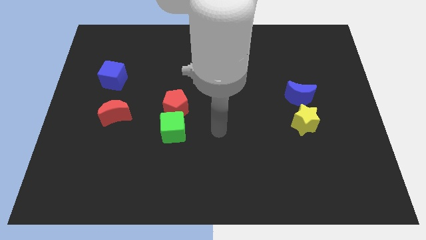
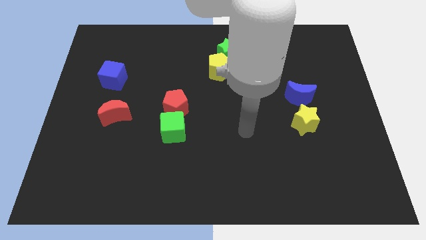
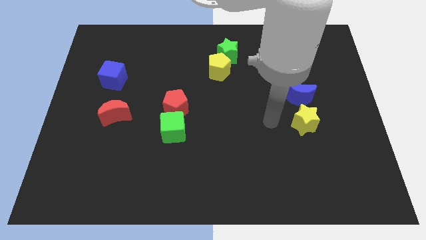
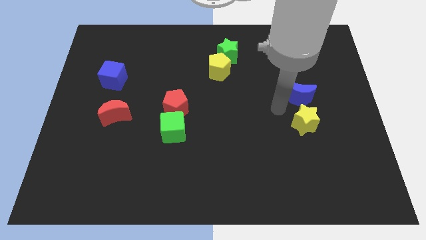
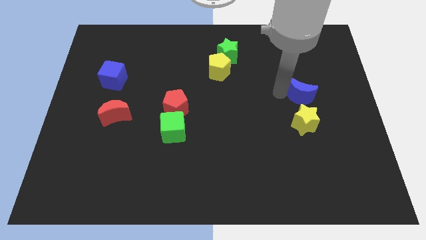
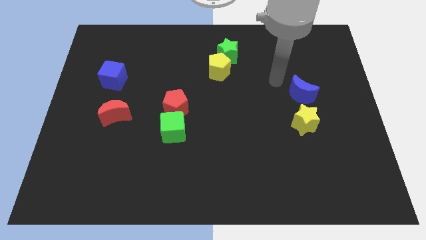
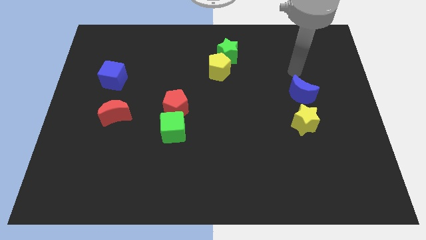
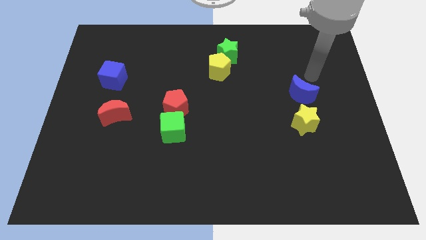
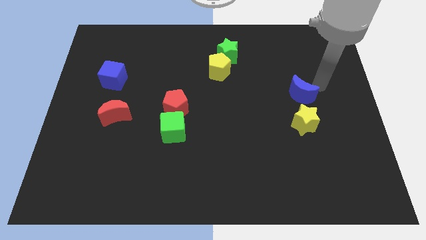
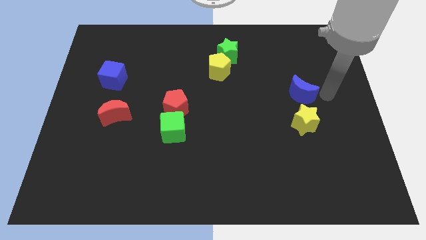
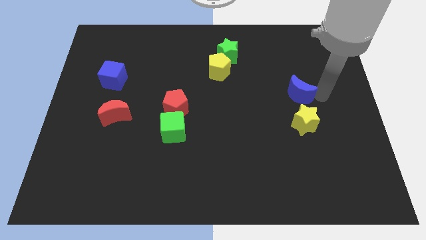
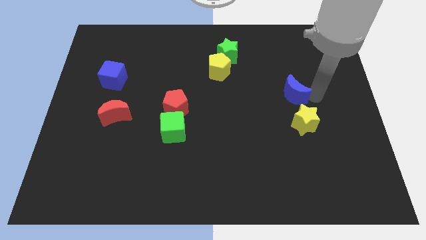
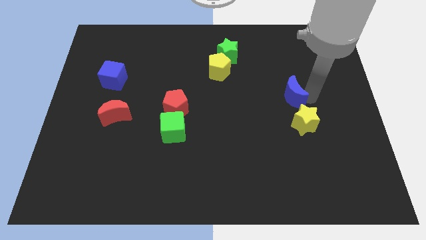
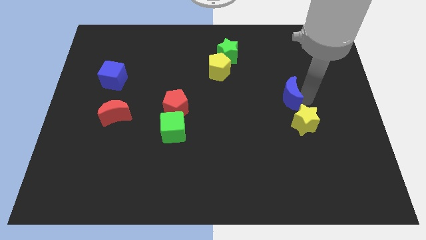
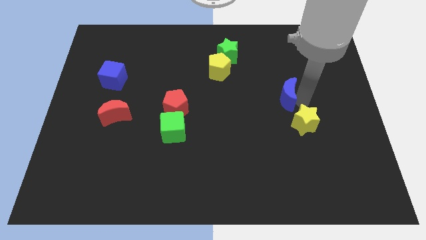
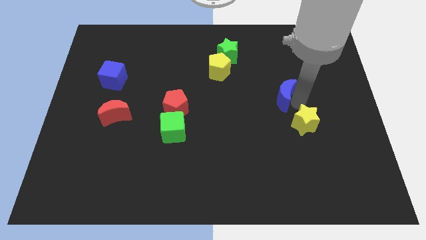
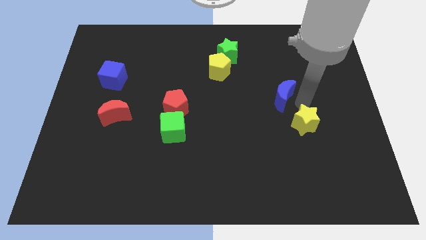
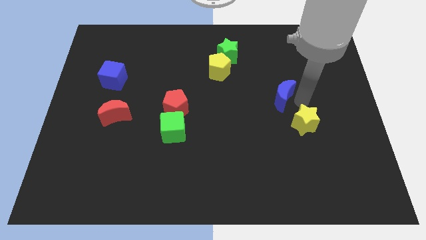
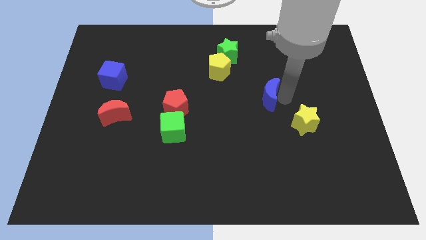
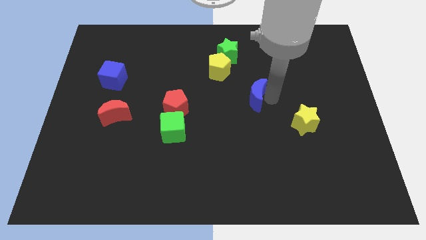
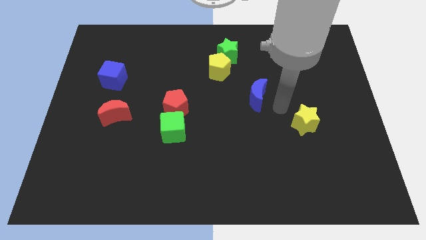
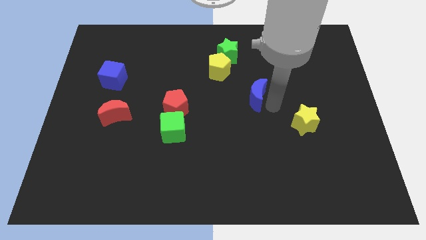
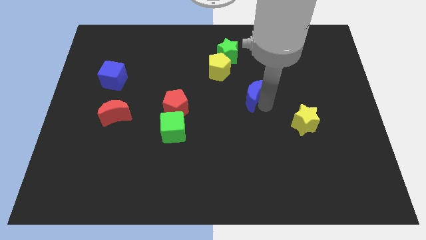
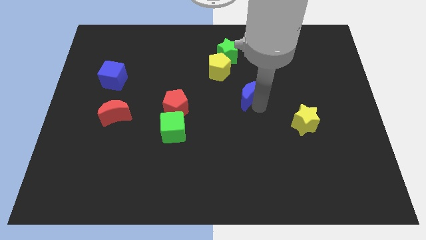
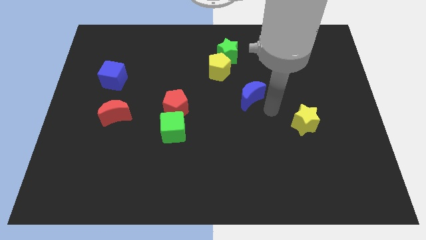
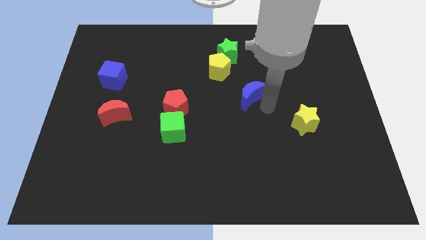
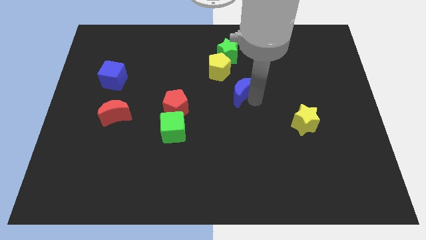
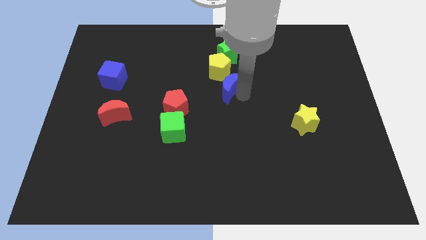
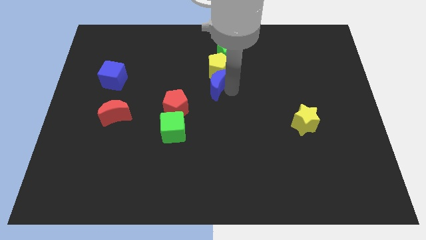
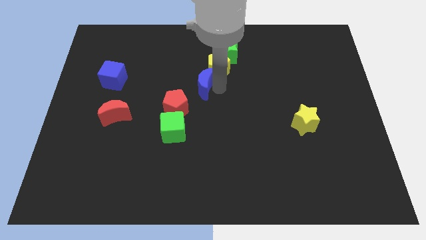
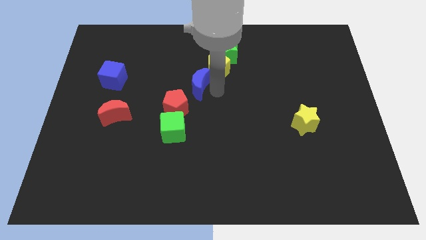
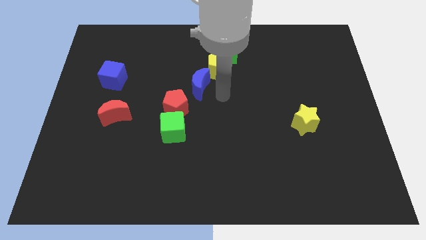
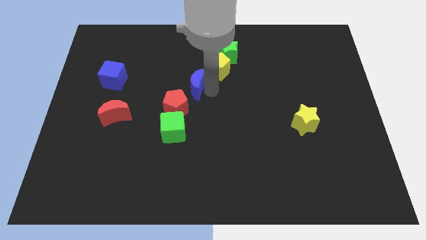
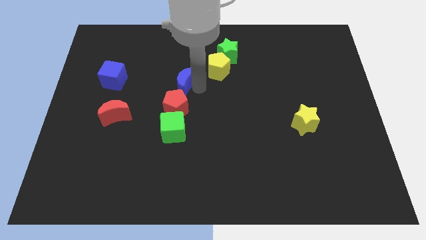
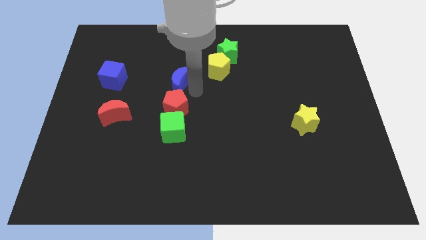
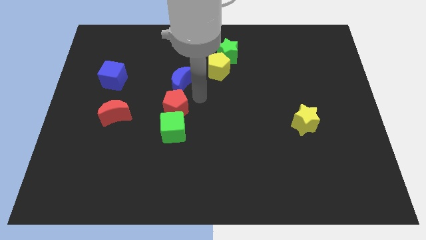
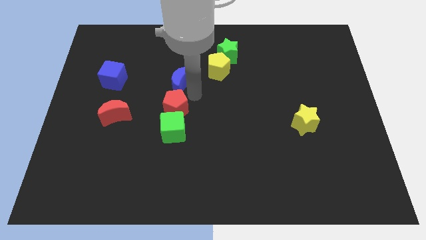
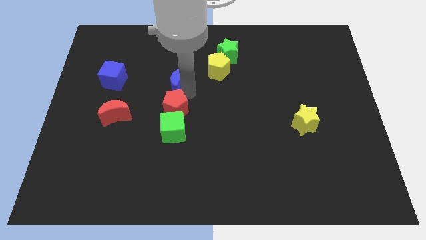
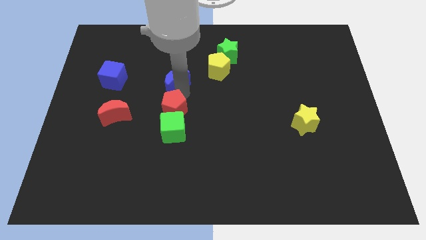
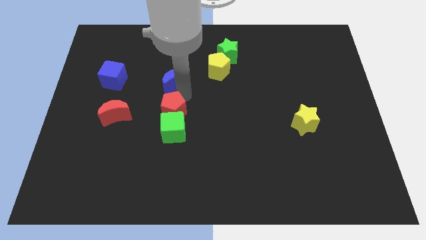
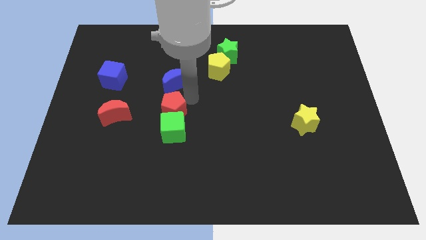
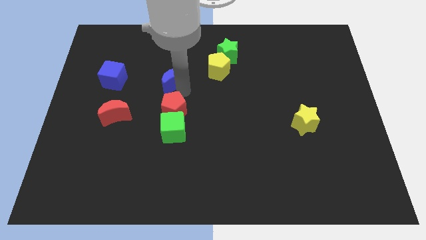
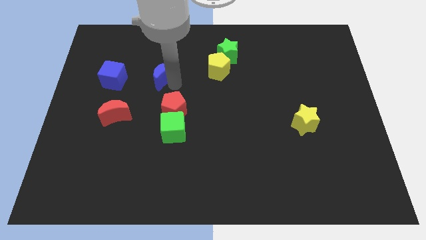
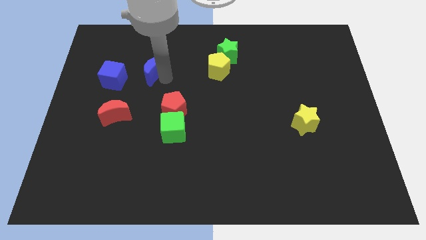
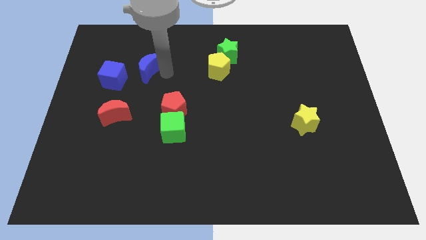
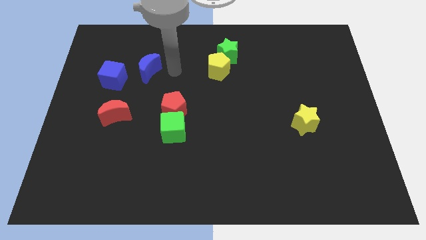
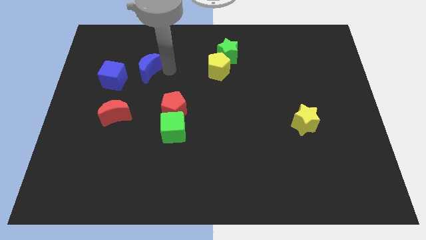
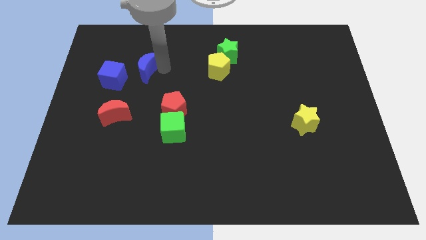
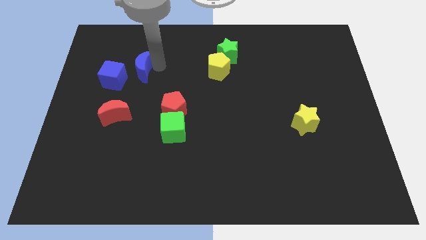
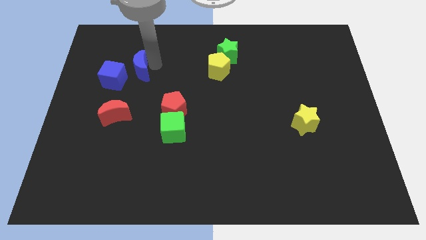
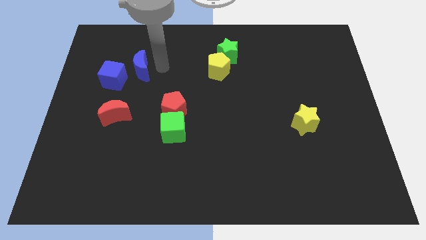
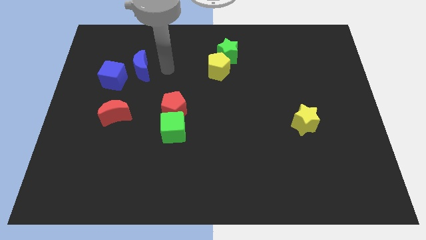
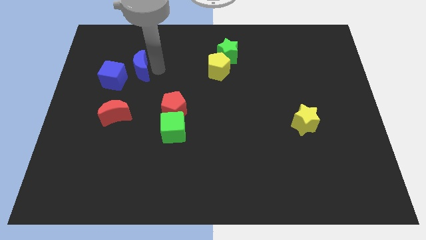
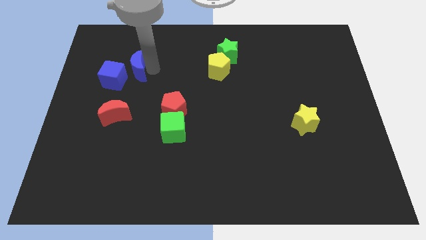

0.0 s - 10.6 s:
move the blue moon to the top side of the red moon

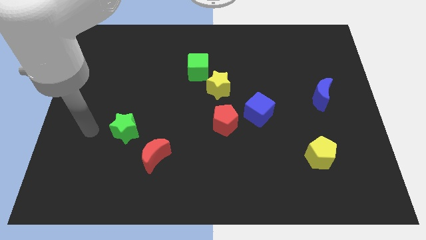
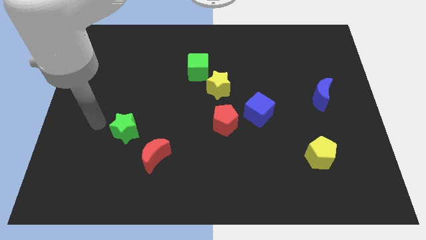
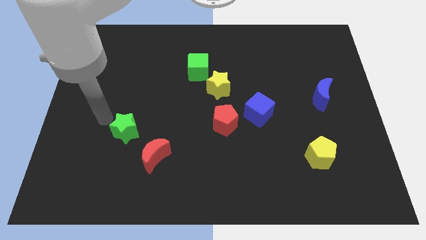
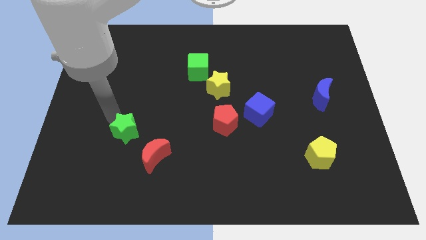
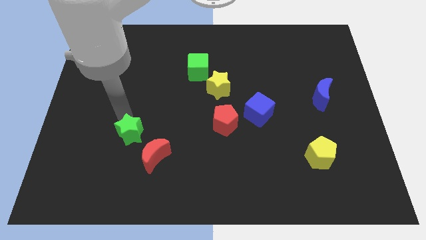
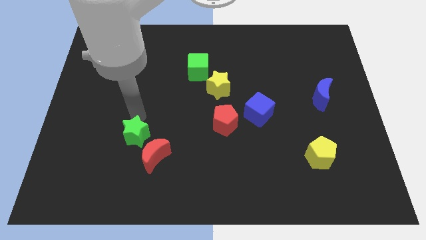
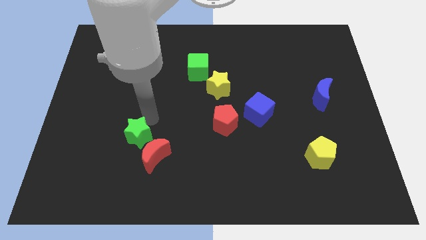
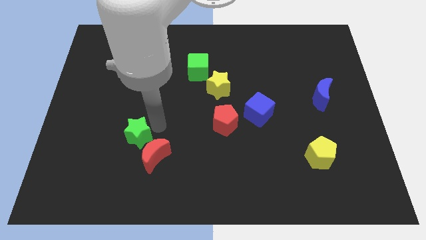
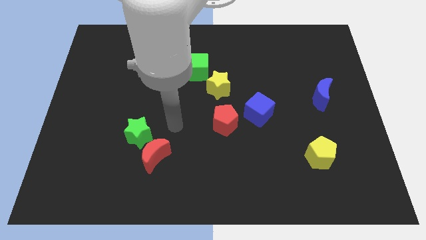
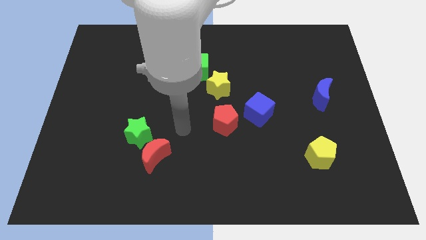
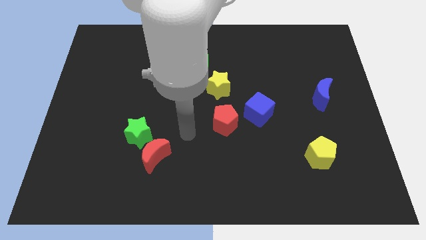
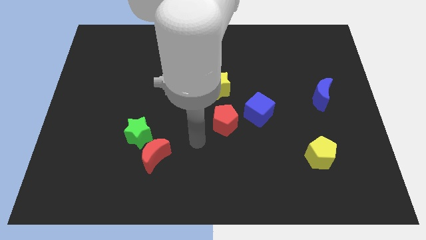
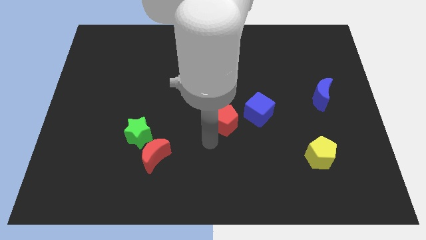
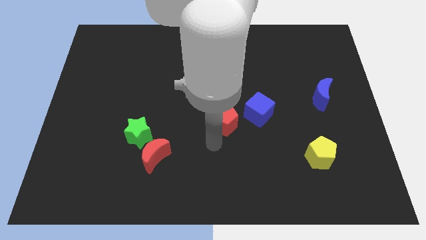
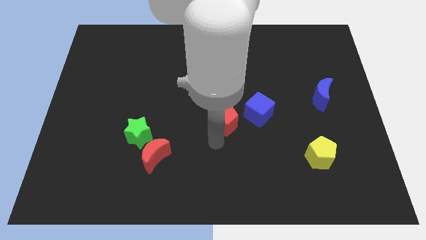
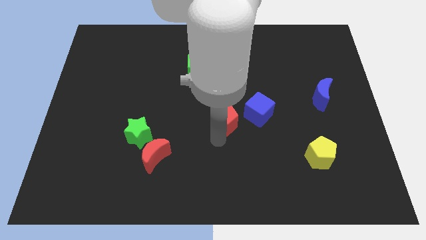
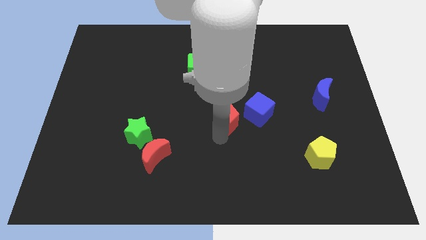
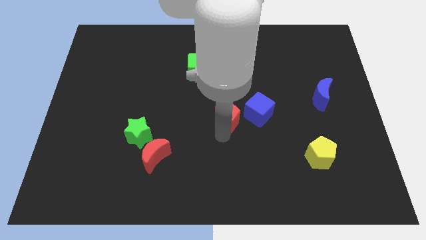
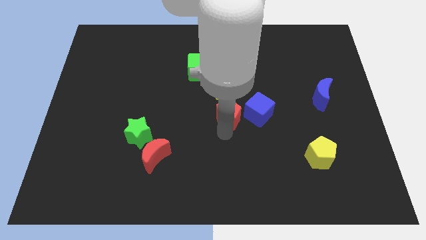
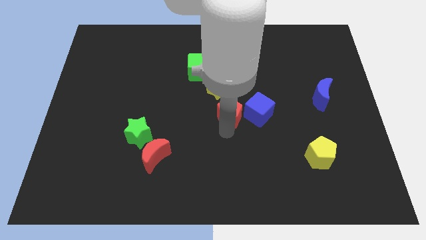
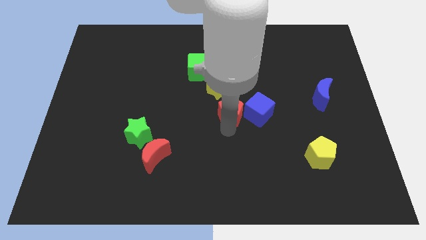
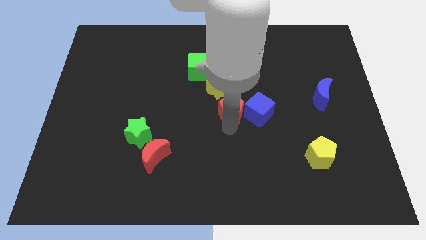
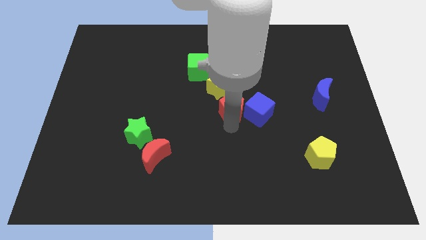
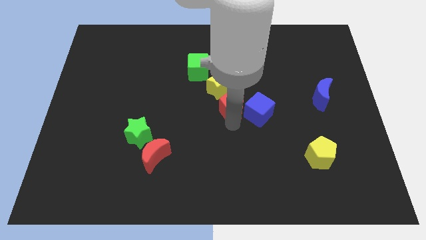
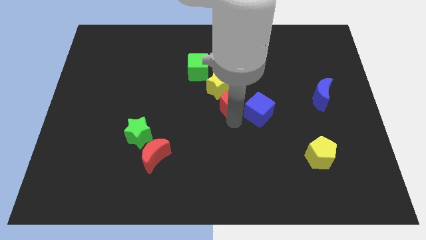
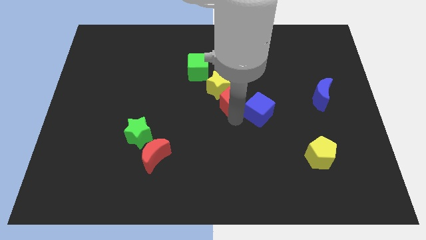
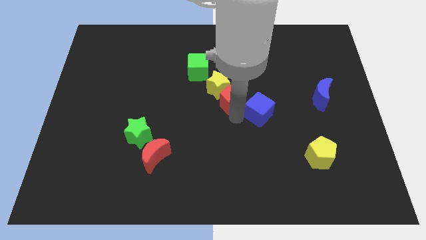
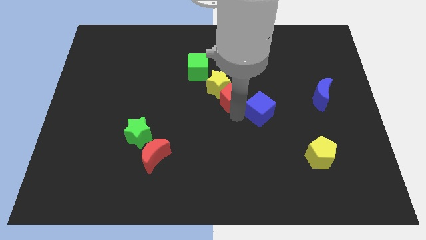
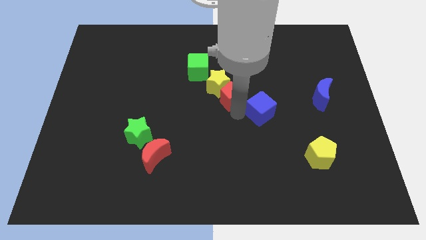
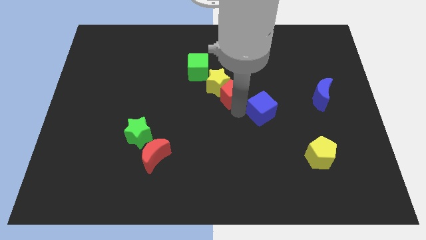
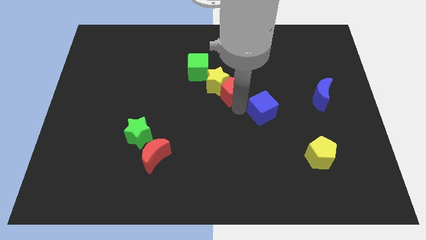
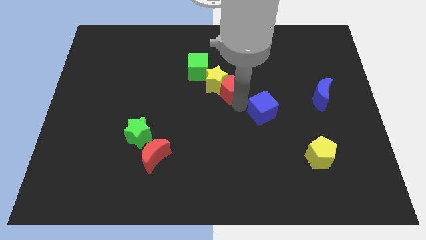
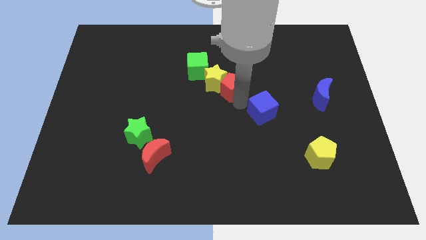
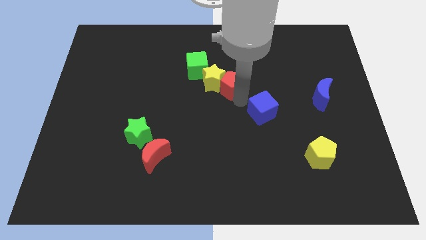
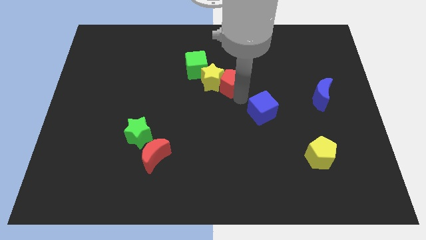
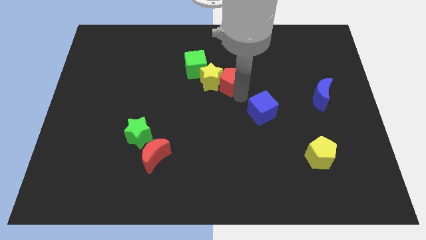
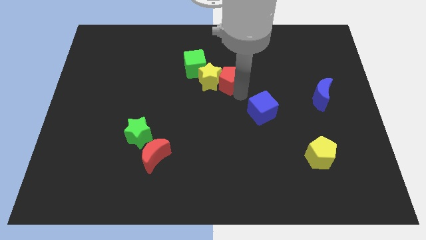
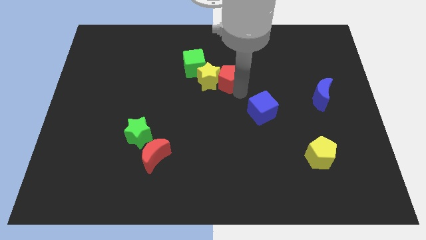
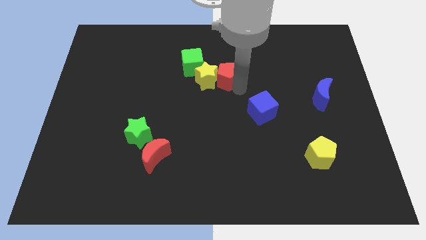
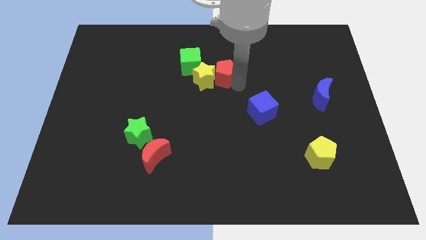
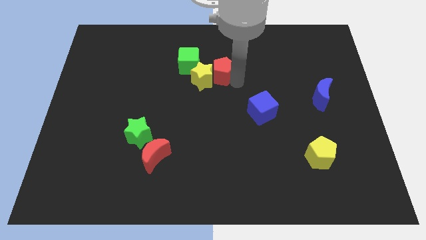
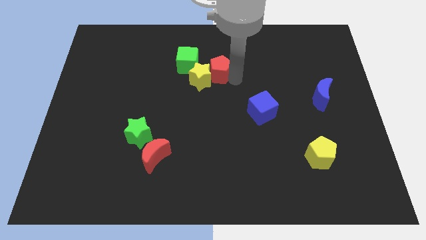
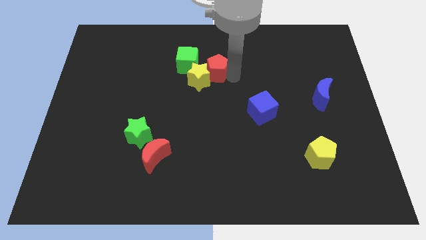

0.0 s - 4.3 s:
slide the red pentagon above the yellow star
